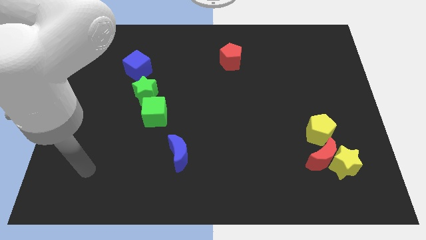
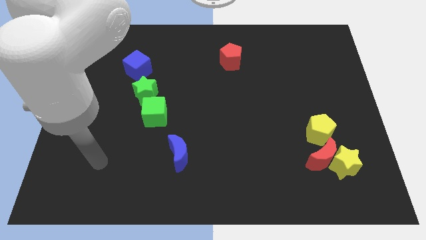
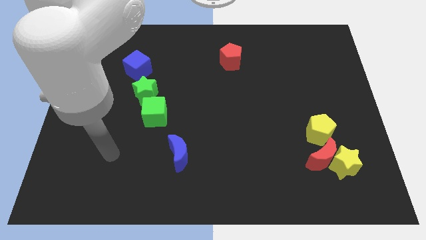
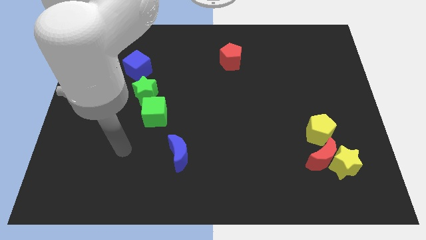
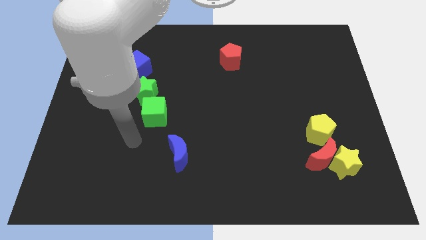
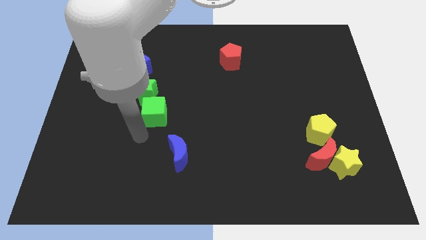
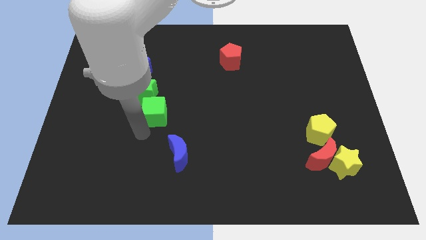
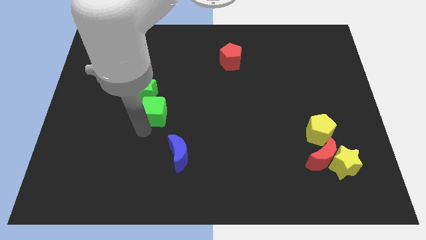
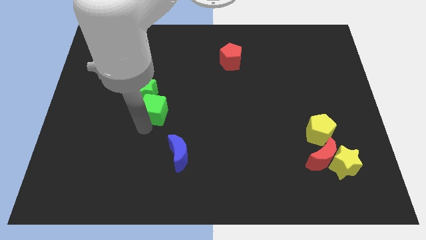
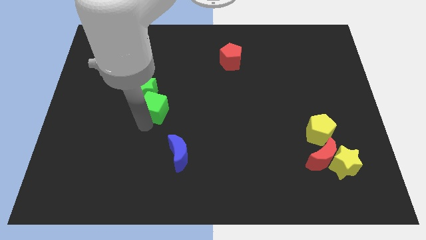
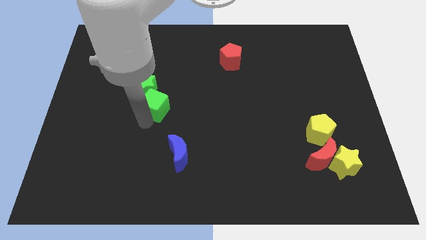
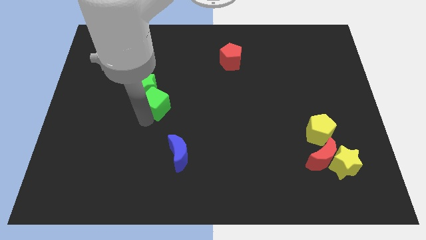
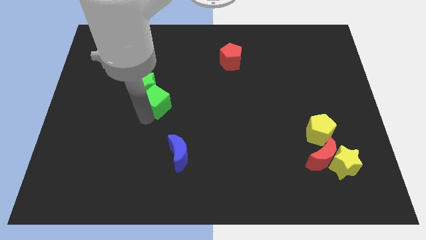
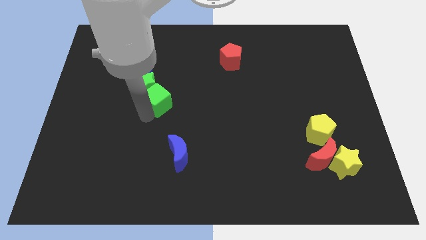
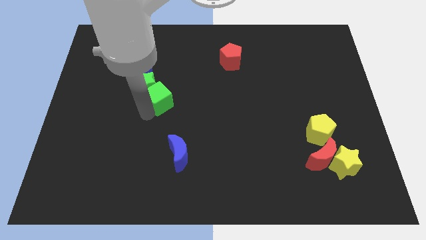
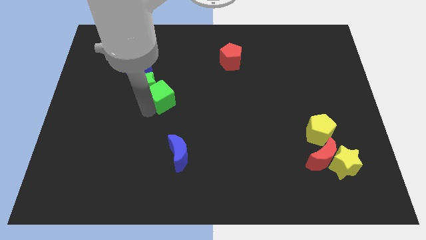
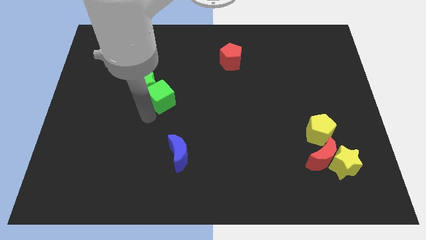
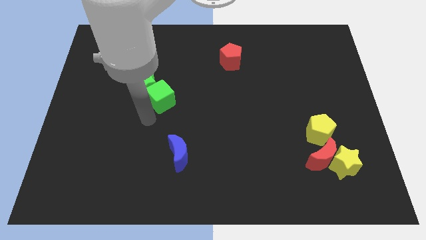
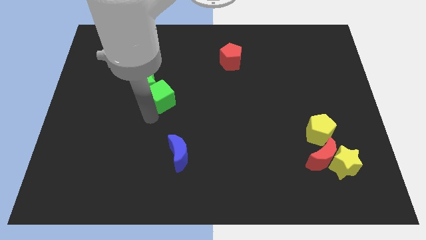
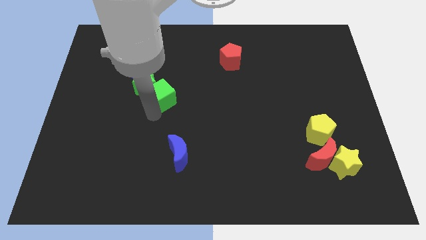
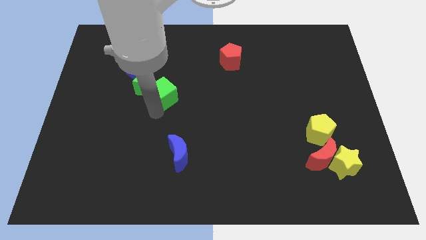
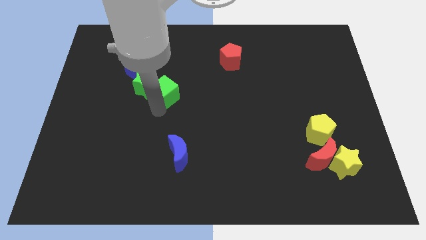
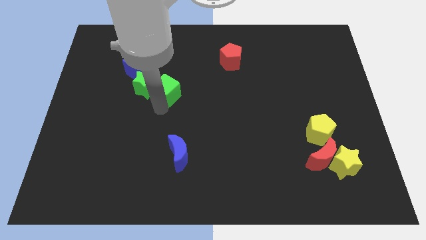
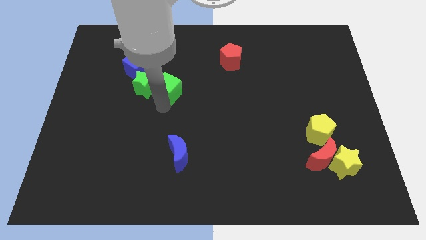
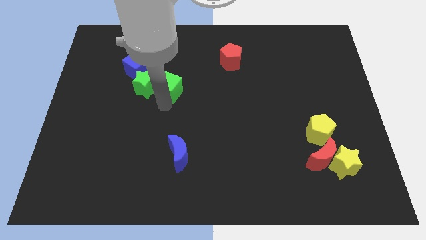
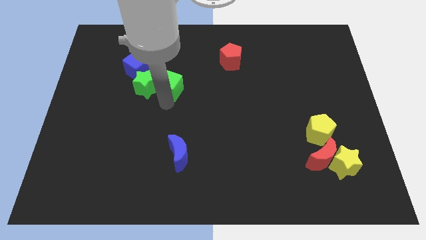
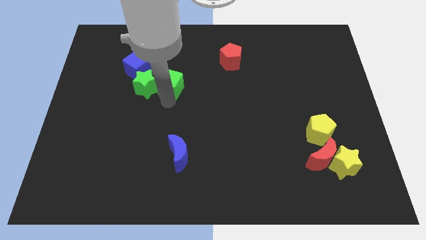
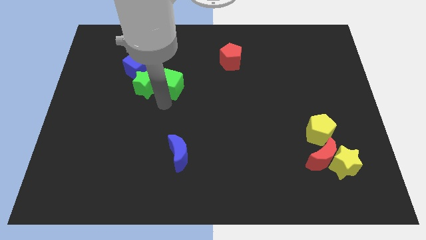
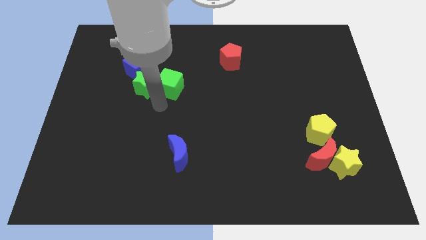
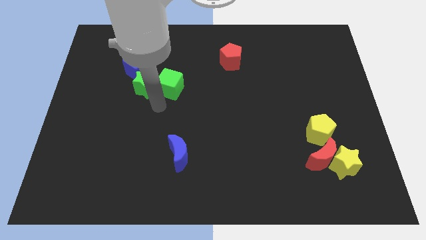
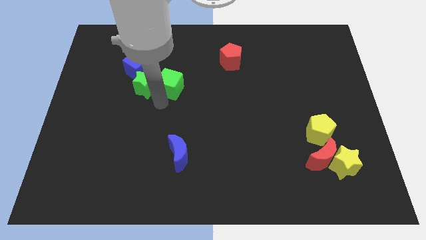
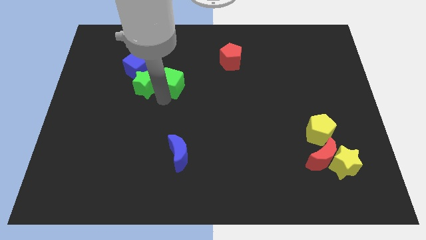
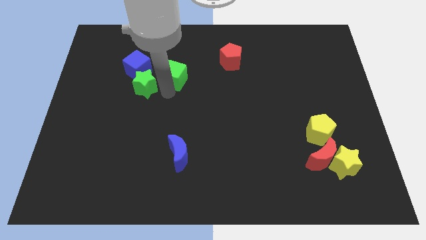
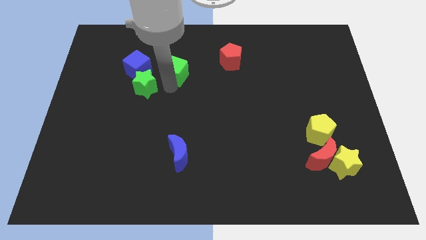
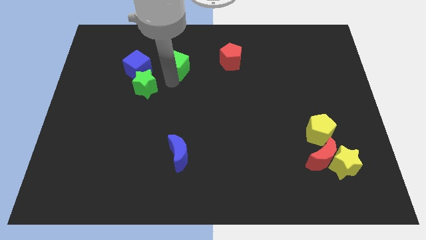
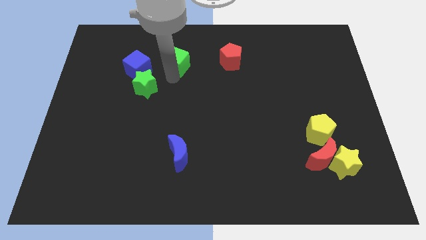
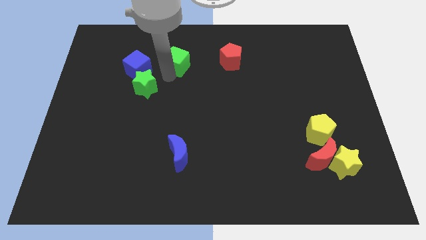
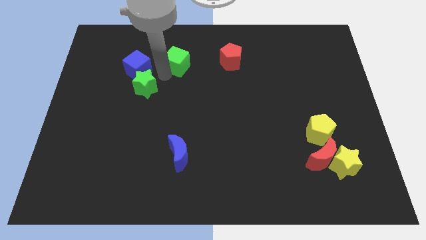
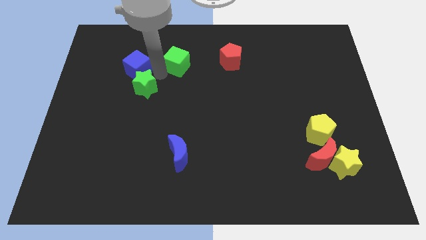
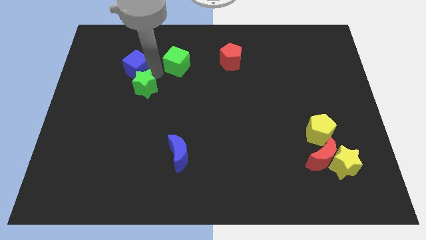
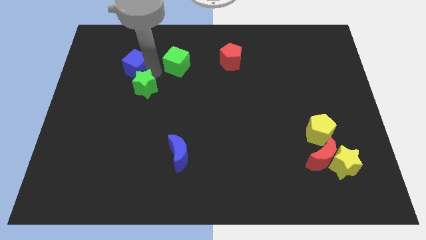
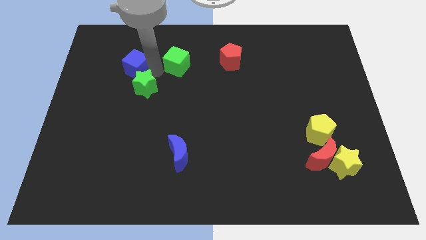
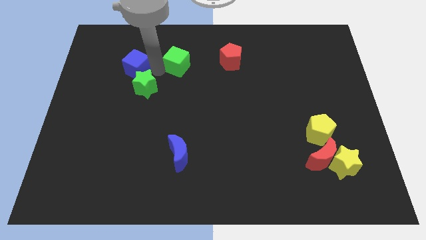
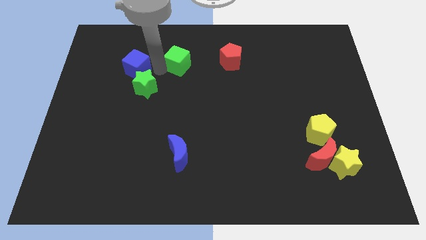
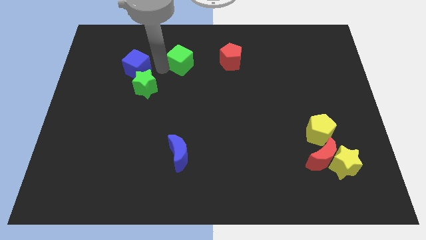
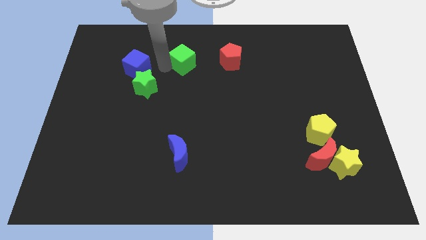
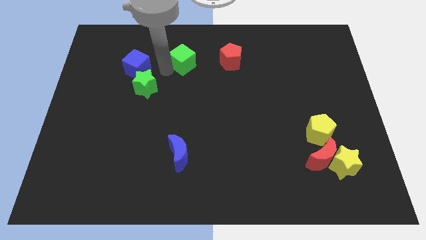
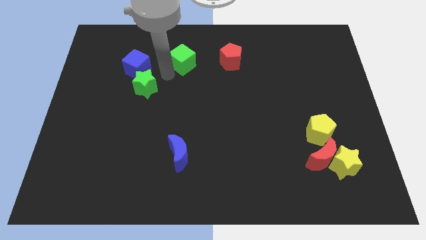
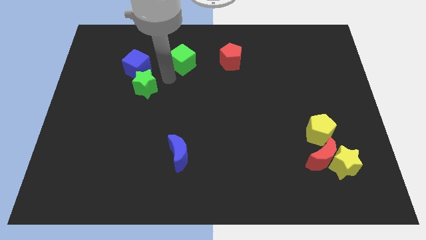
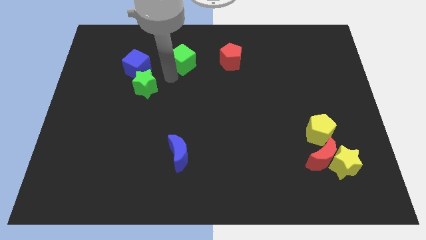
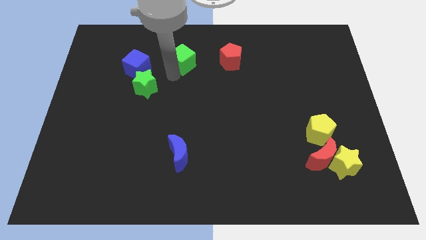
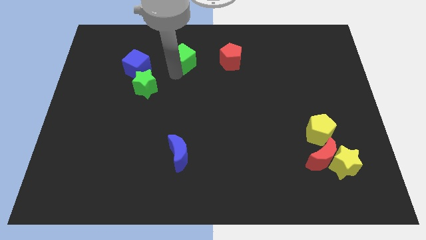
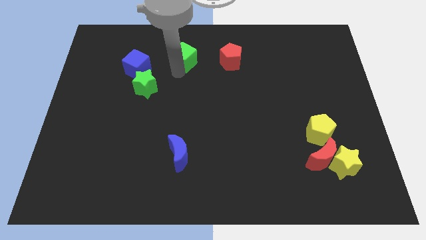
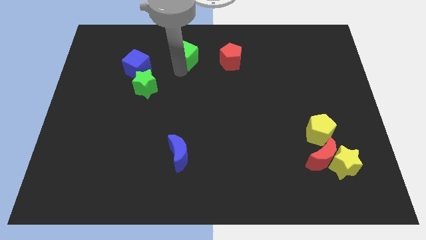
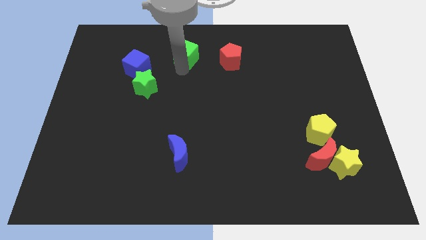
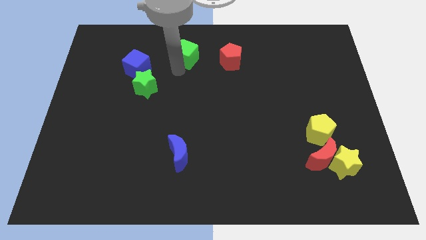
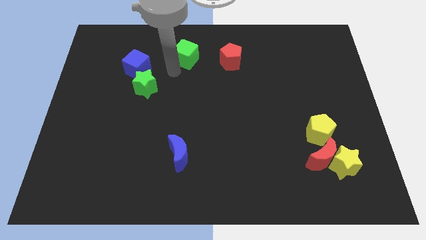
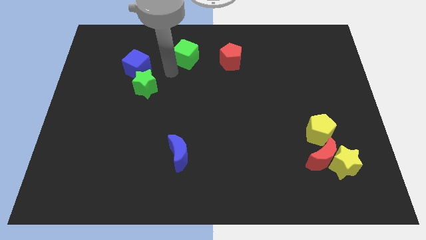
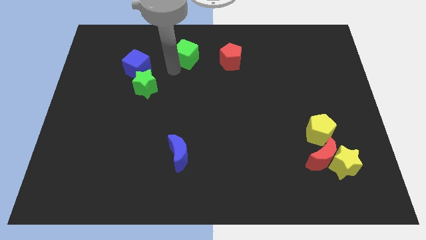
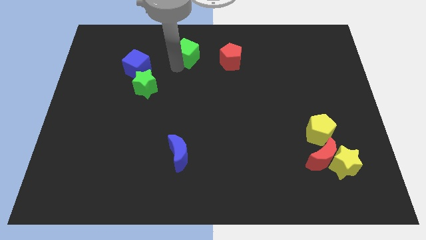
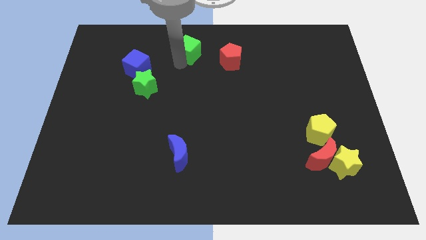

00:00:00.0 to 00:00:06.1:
push the green cube to the towards your base

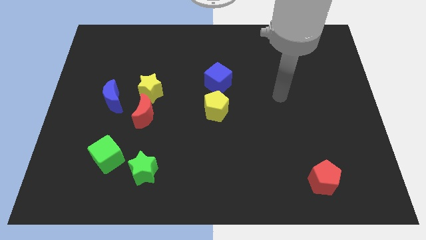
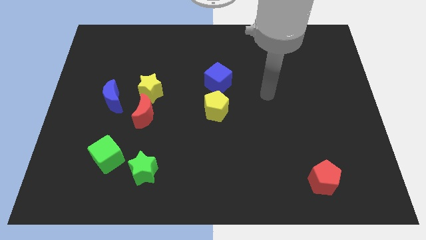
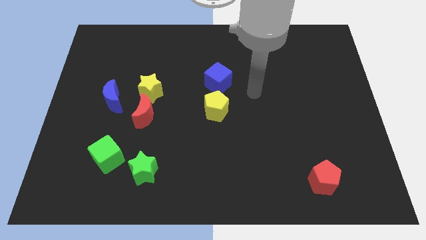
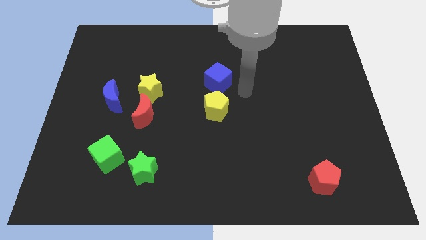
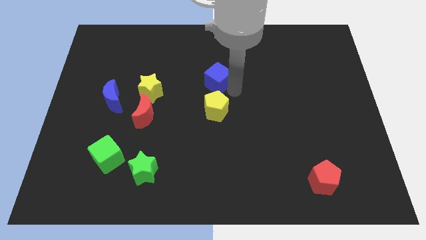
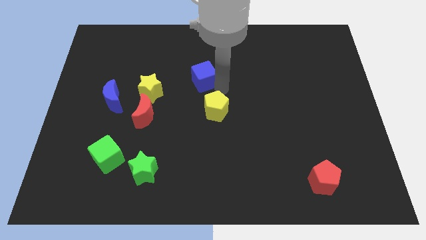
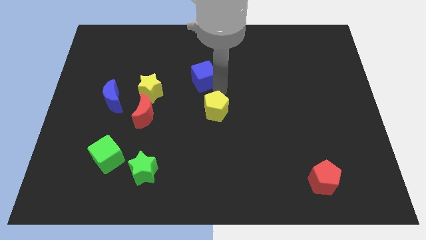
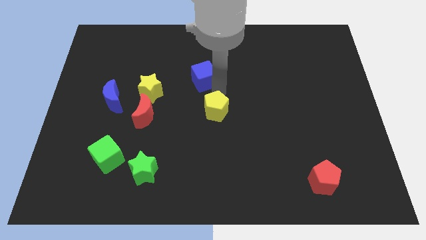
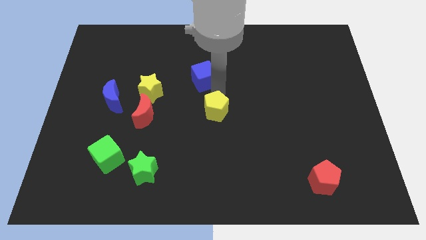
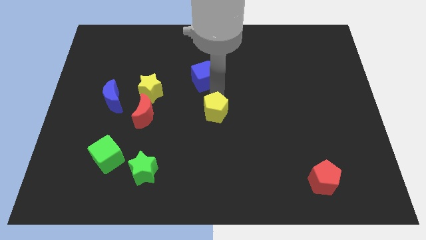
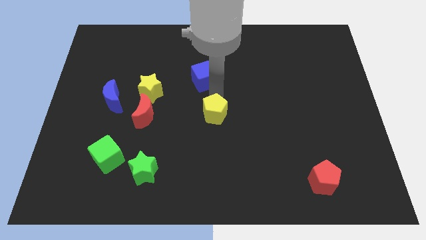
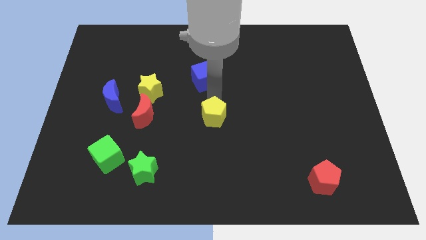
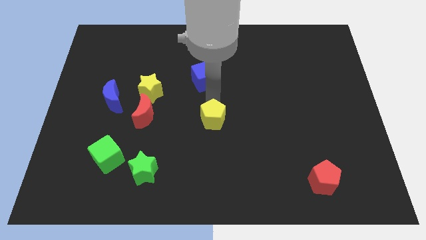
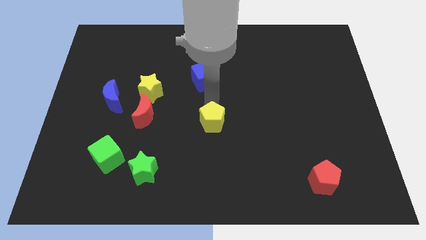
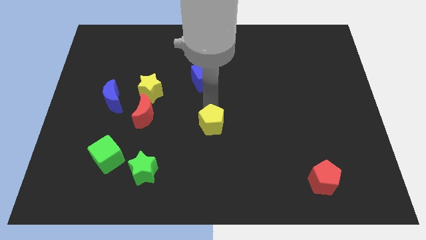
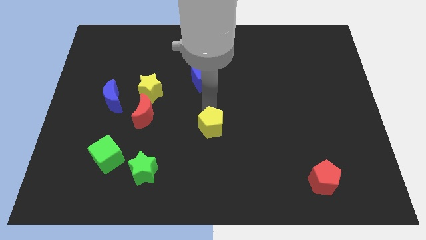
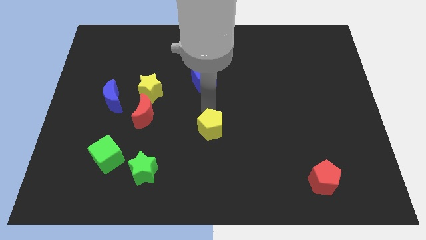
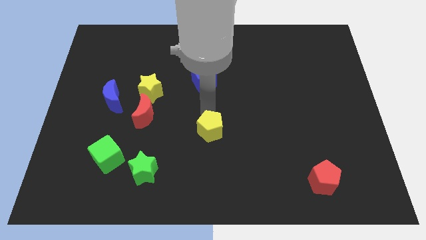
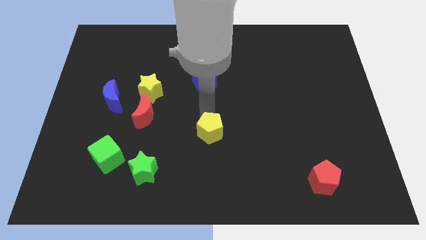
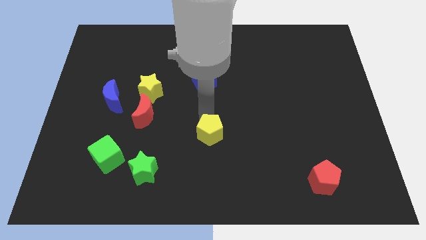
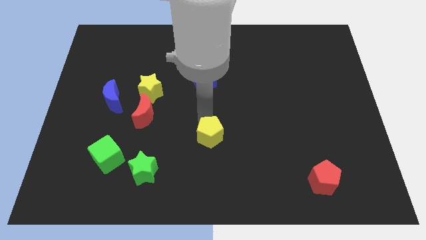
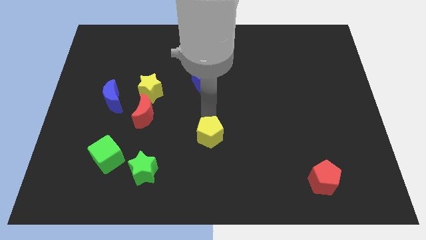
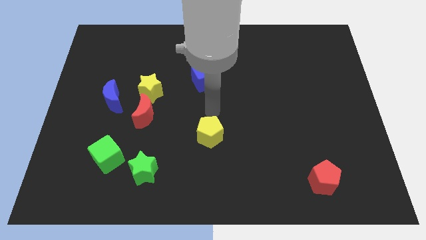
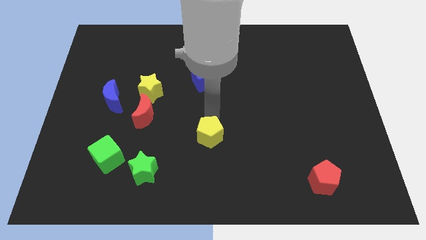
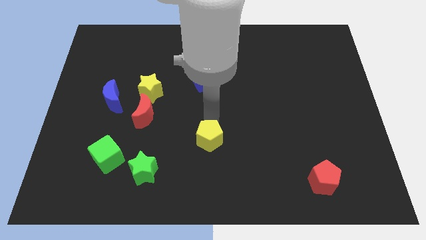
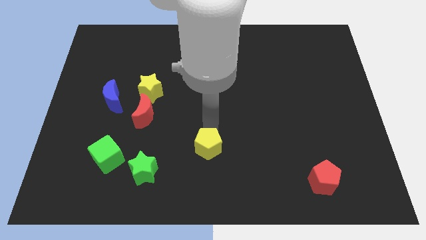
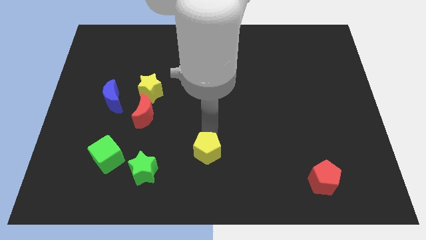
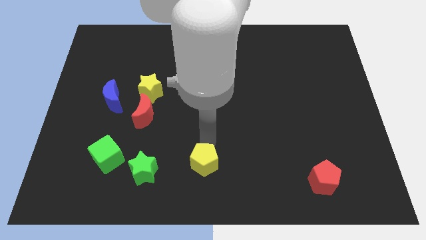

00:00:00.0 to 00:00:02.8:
put the yellow pentagon to the bottom side
